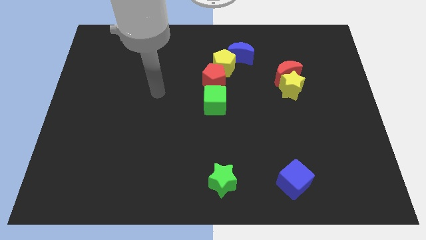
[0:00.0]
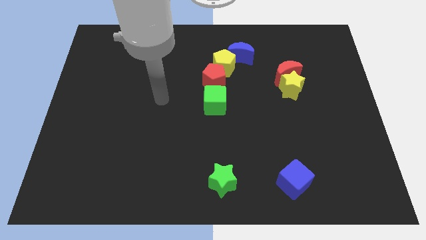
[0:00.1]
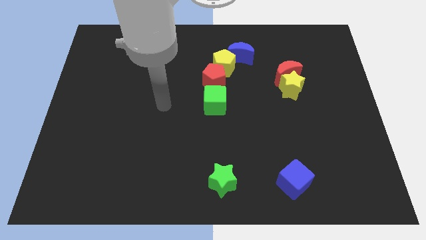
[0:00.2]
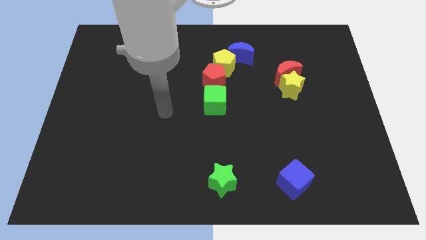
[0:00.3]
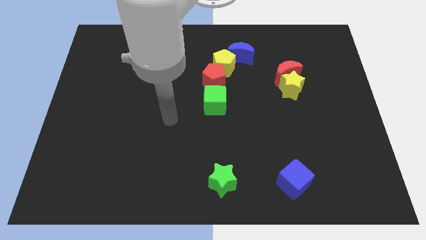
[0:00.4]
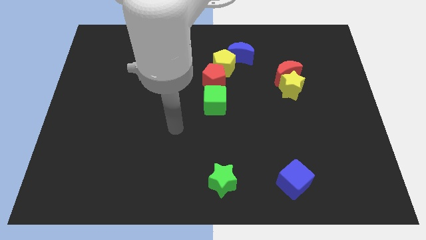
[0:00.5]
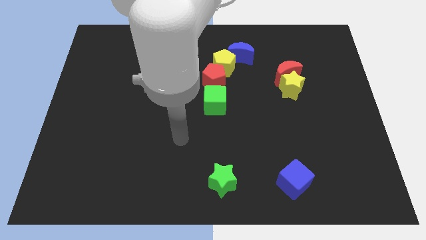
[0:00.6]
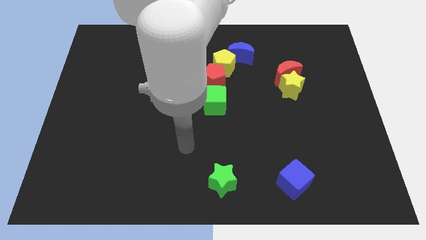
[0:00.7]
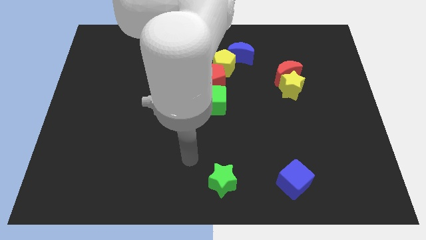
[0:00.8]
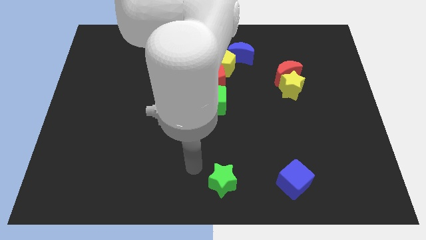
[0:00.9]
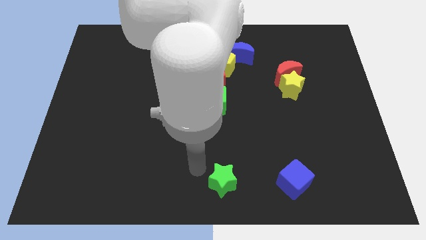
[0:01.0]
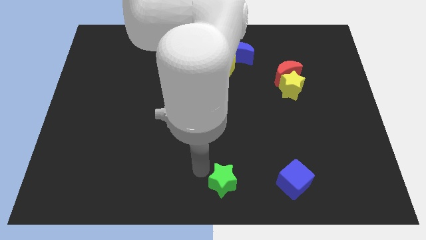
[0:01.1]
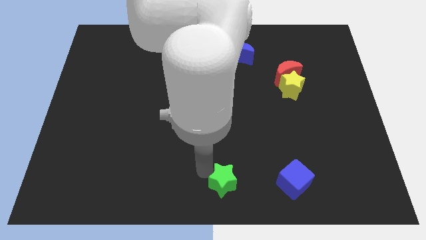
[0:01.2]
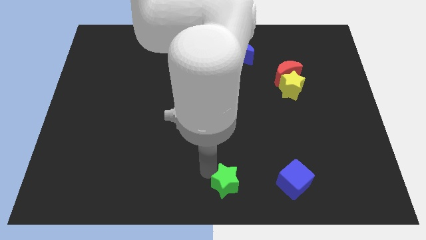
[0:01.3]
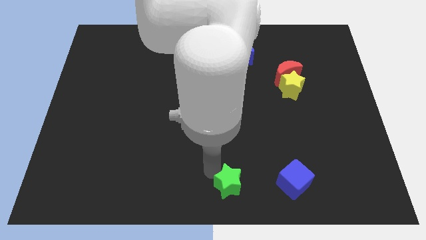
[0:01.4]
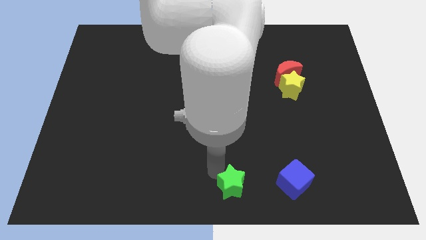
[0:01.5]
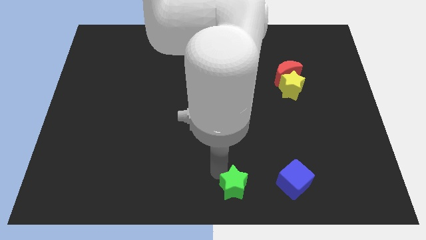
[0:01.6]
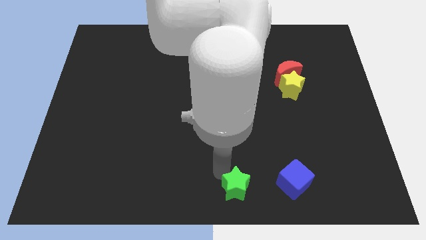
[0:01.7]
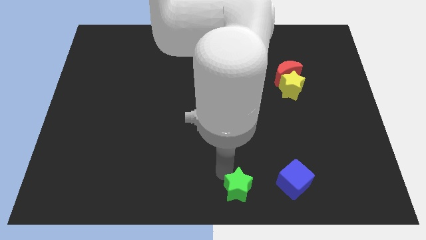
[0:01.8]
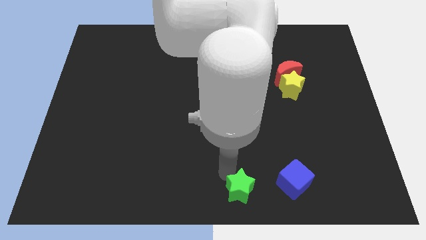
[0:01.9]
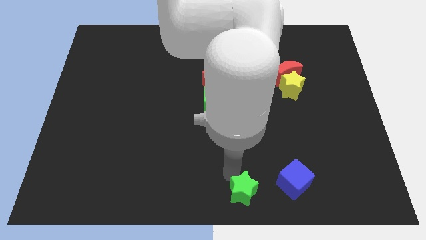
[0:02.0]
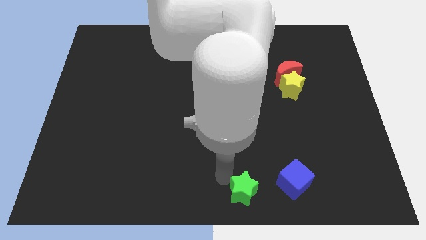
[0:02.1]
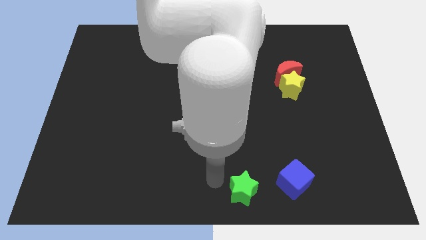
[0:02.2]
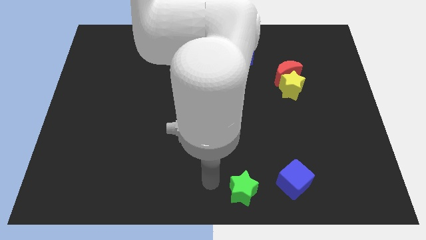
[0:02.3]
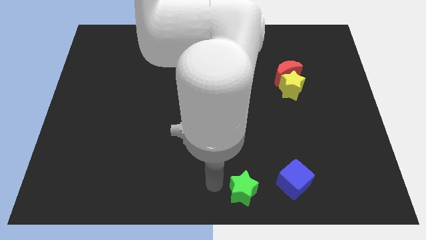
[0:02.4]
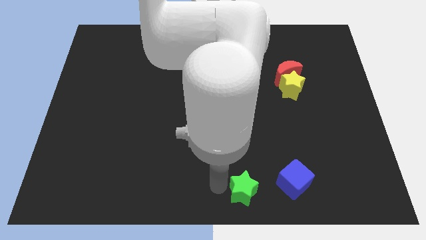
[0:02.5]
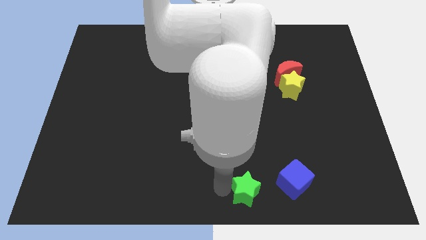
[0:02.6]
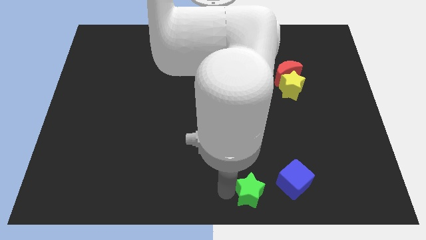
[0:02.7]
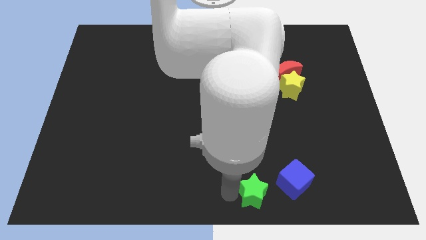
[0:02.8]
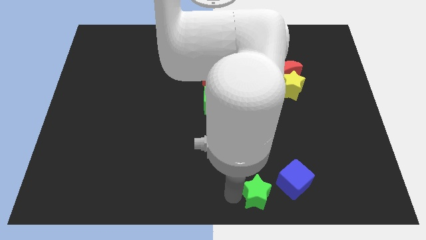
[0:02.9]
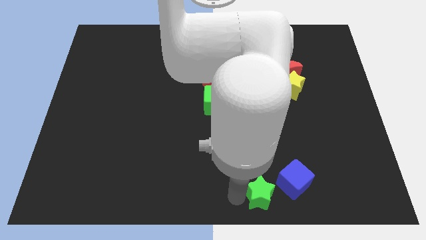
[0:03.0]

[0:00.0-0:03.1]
slightly move the green star to the right

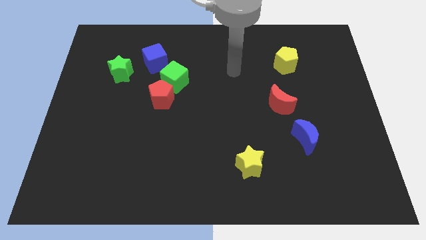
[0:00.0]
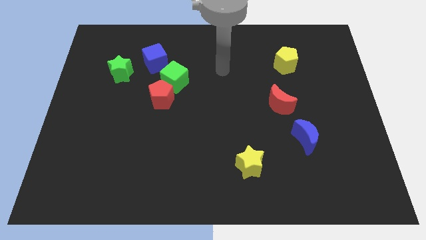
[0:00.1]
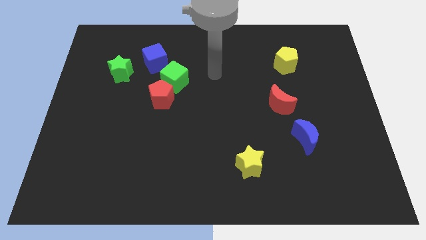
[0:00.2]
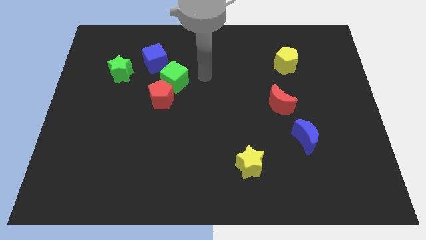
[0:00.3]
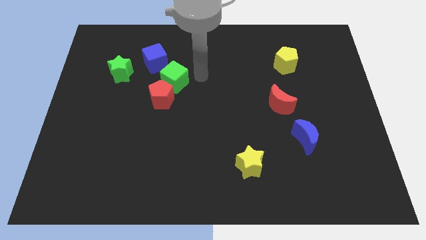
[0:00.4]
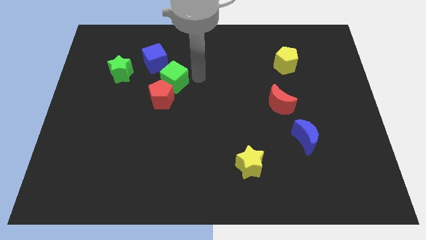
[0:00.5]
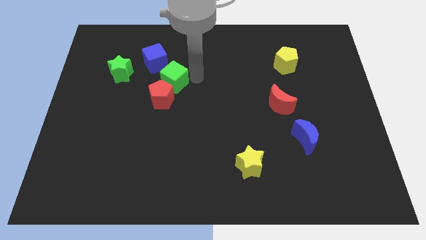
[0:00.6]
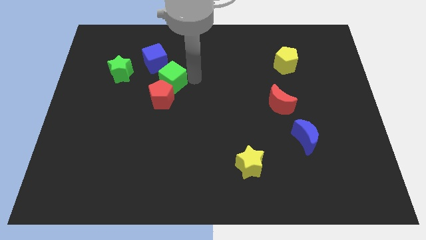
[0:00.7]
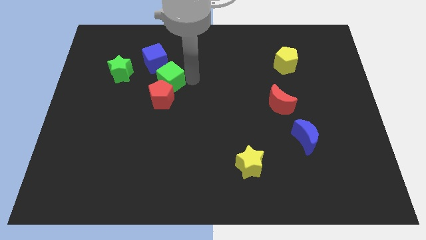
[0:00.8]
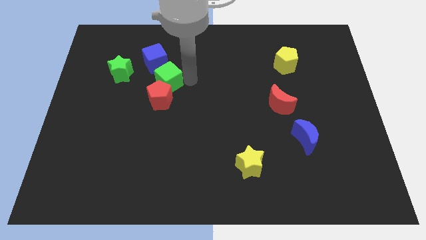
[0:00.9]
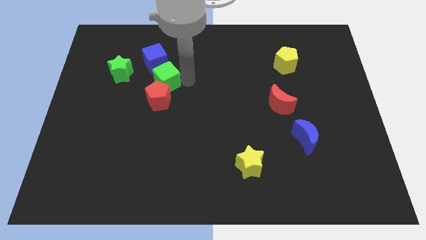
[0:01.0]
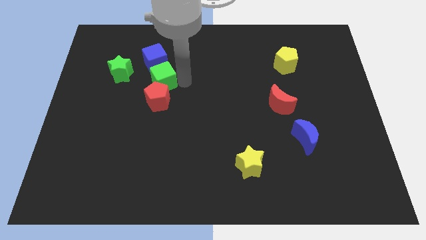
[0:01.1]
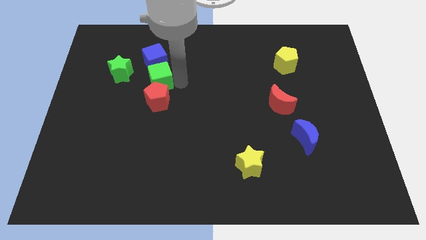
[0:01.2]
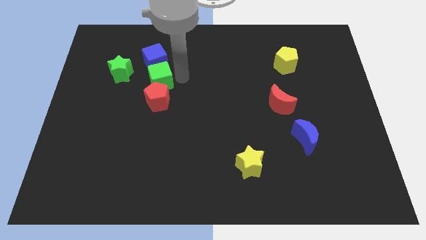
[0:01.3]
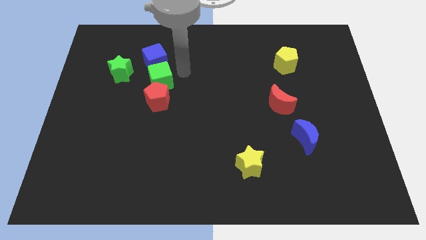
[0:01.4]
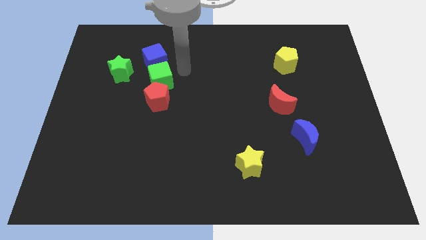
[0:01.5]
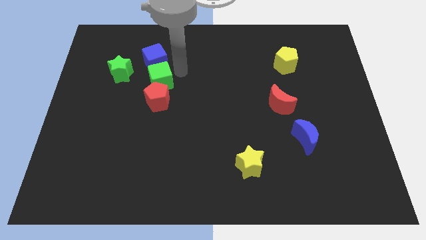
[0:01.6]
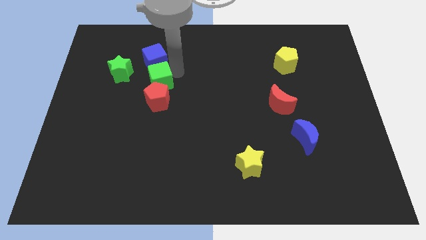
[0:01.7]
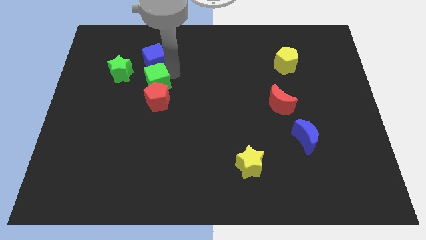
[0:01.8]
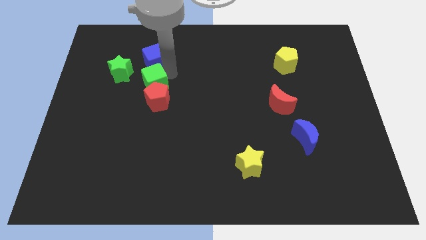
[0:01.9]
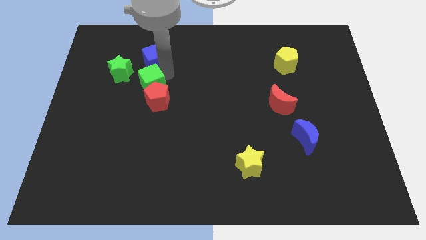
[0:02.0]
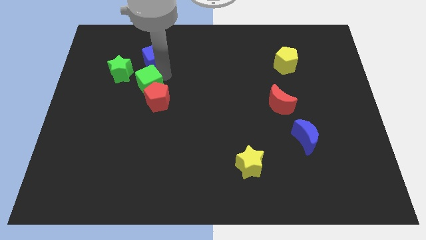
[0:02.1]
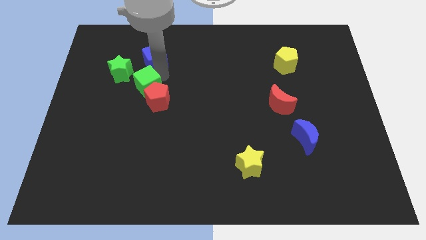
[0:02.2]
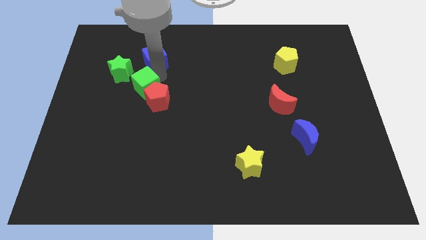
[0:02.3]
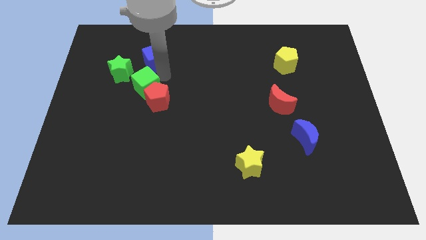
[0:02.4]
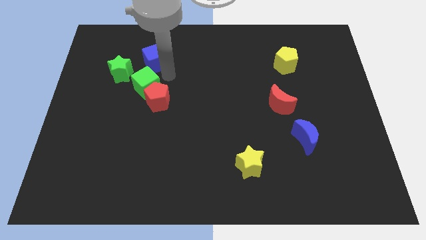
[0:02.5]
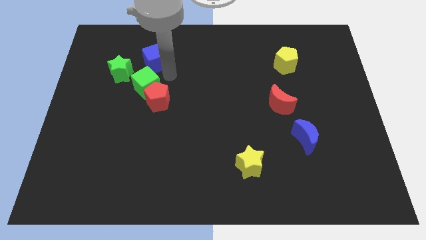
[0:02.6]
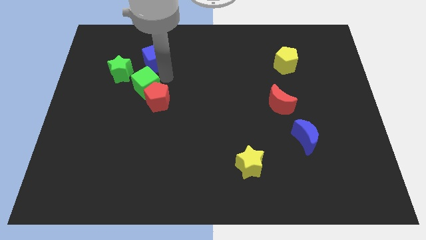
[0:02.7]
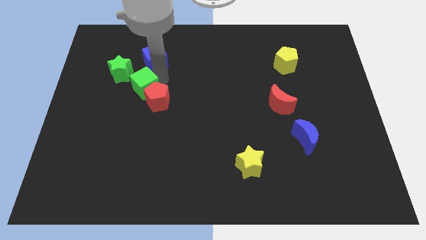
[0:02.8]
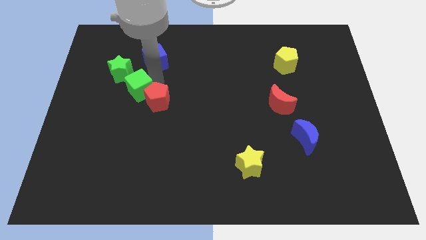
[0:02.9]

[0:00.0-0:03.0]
slide the green cube downwards and left a bit

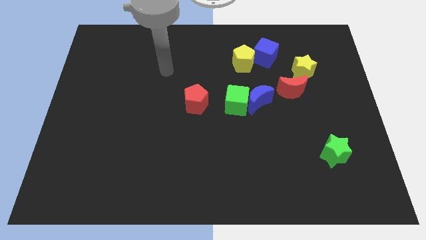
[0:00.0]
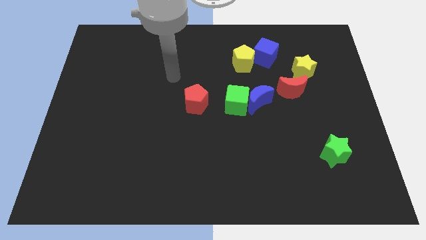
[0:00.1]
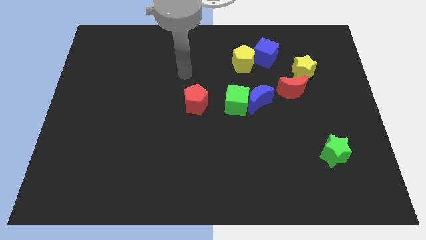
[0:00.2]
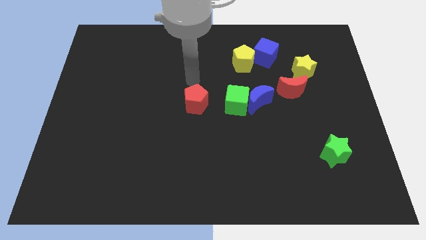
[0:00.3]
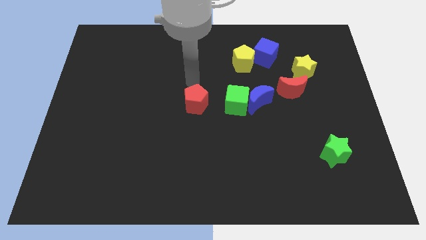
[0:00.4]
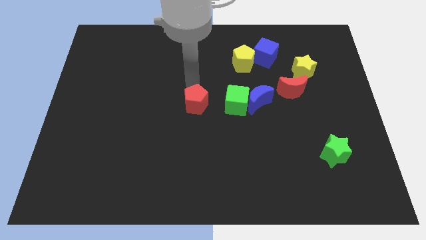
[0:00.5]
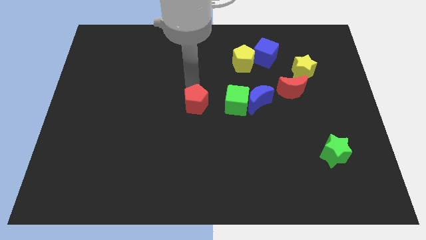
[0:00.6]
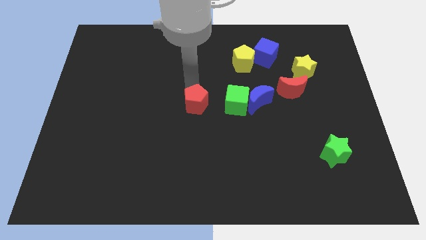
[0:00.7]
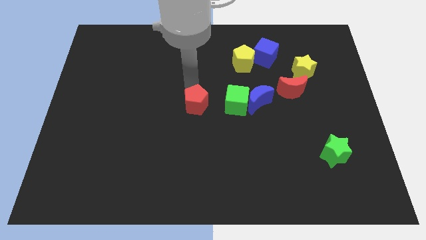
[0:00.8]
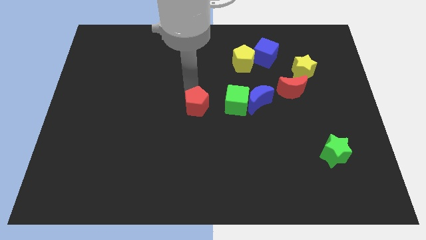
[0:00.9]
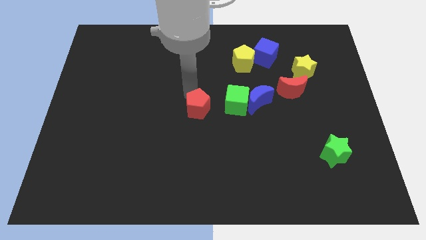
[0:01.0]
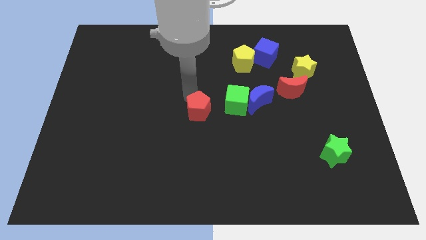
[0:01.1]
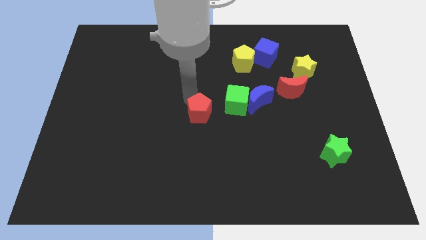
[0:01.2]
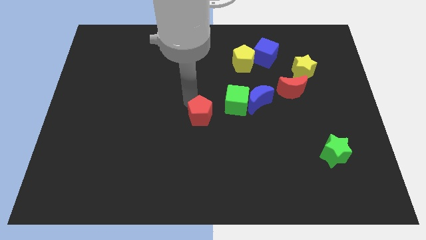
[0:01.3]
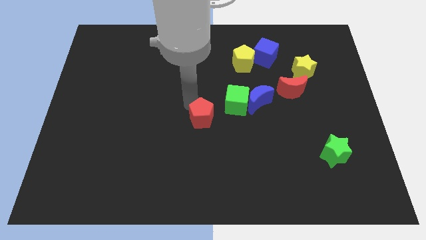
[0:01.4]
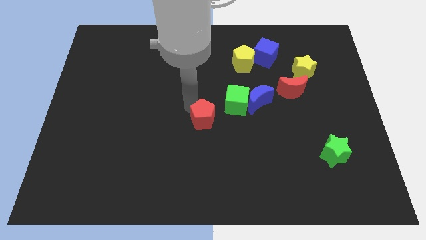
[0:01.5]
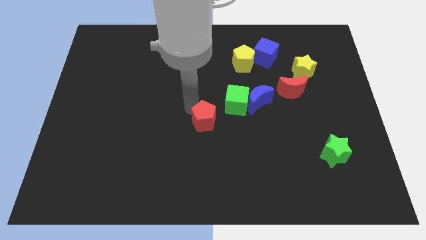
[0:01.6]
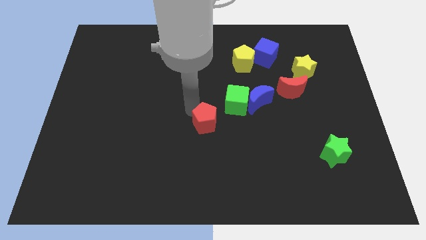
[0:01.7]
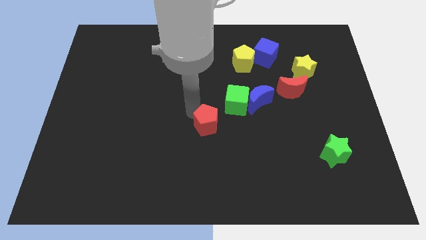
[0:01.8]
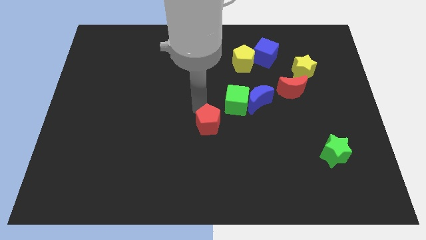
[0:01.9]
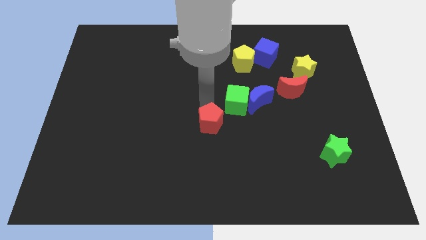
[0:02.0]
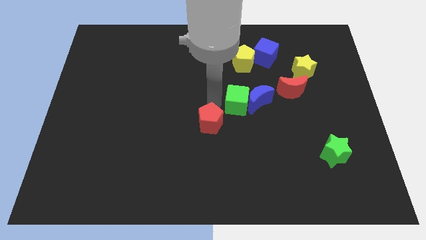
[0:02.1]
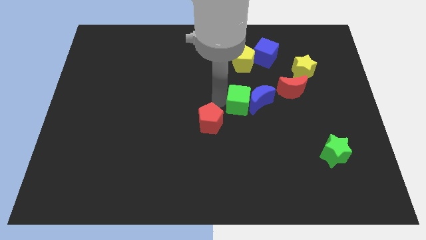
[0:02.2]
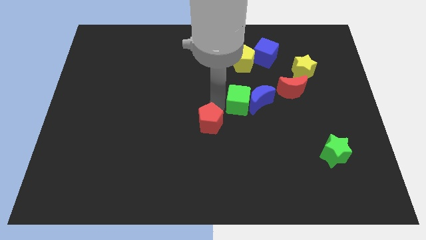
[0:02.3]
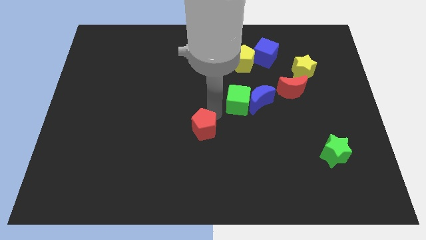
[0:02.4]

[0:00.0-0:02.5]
slightly push the red pentagon downwards
